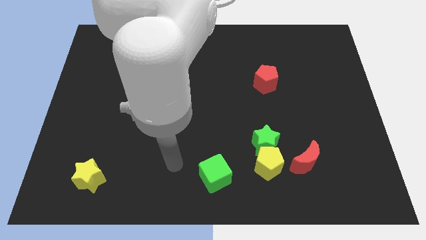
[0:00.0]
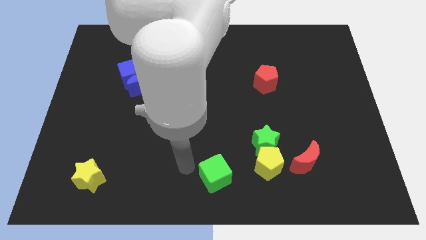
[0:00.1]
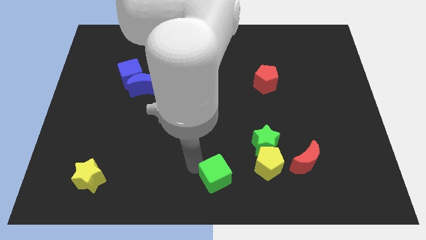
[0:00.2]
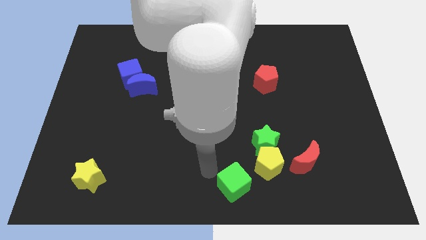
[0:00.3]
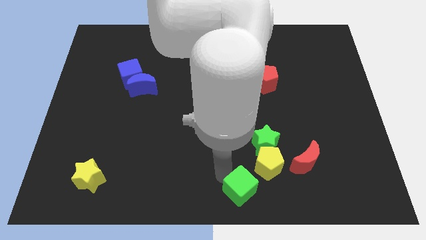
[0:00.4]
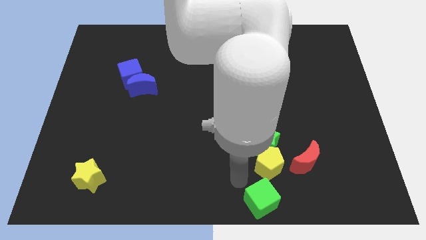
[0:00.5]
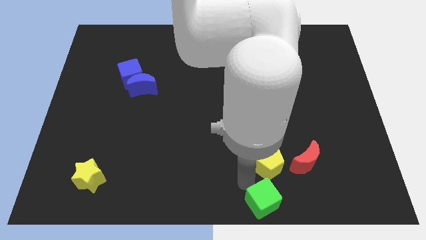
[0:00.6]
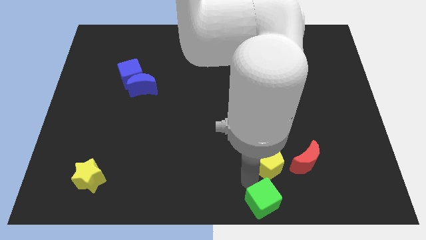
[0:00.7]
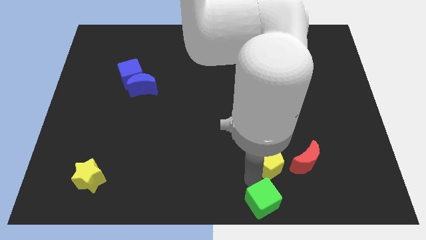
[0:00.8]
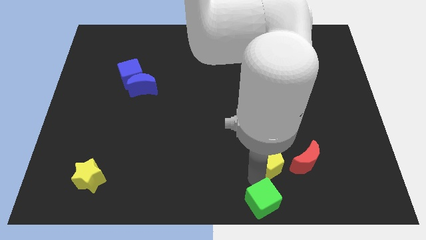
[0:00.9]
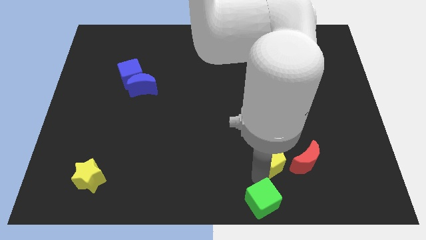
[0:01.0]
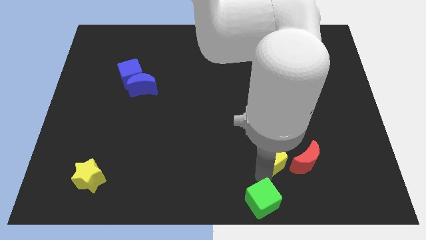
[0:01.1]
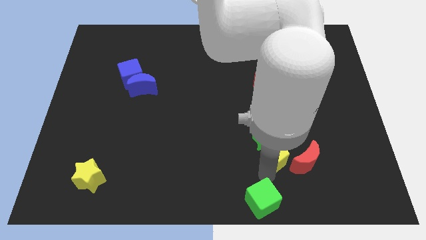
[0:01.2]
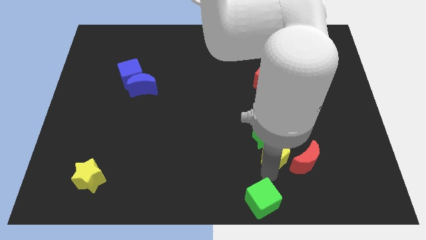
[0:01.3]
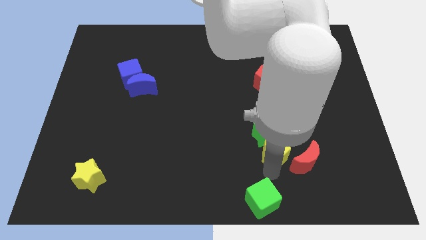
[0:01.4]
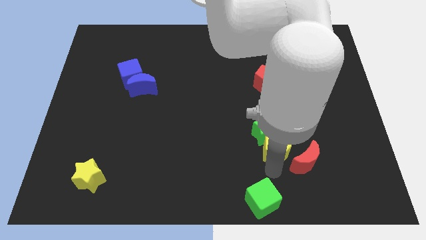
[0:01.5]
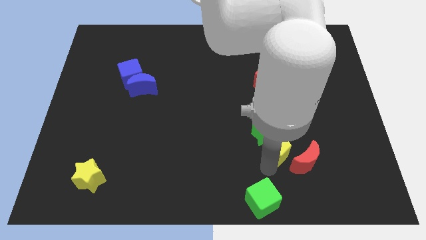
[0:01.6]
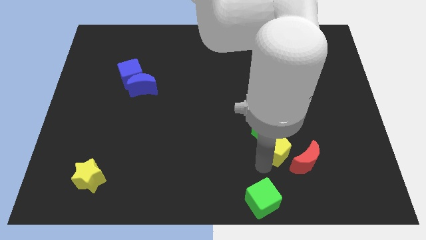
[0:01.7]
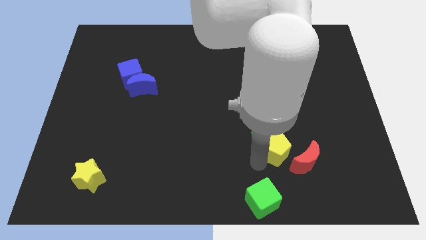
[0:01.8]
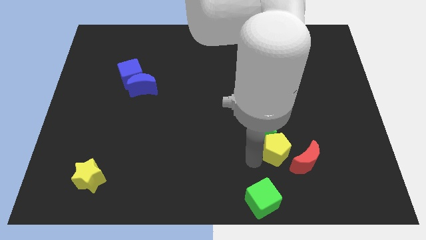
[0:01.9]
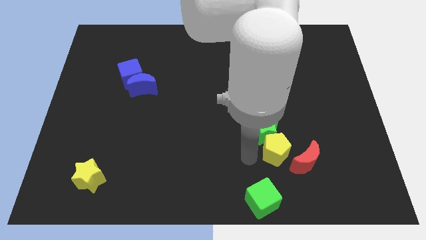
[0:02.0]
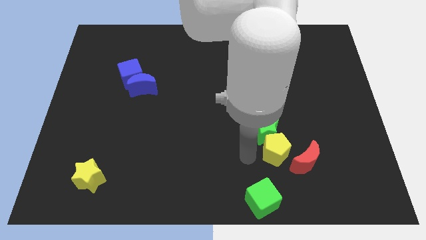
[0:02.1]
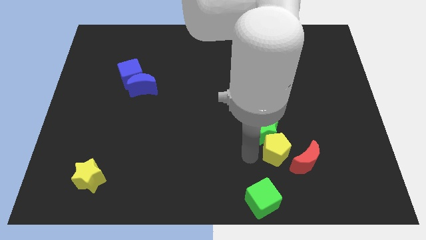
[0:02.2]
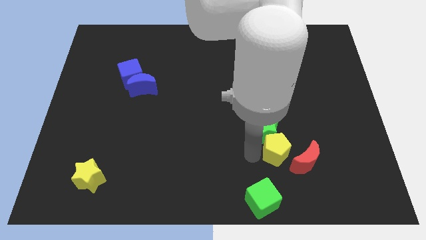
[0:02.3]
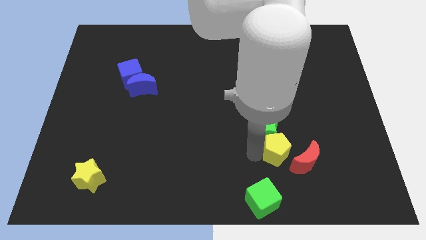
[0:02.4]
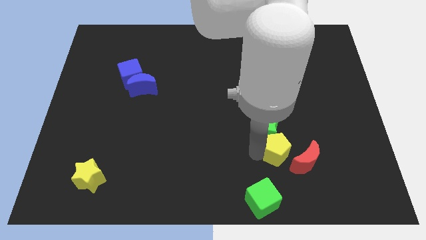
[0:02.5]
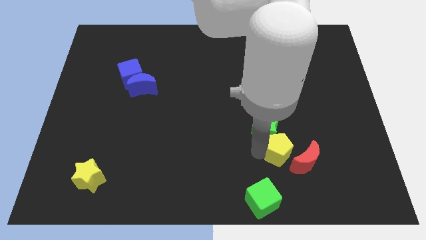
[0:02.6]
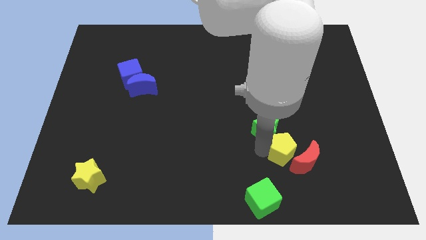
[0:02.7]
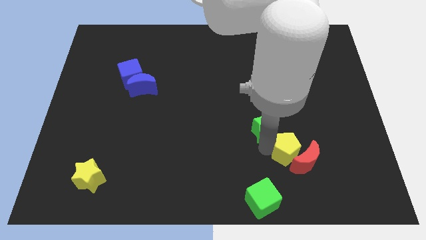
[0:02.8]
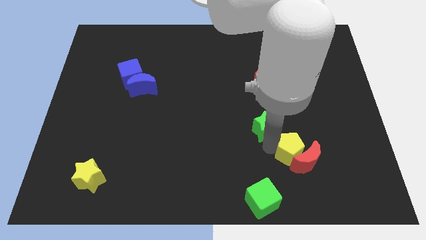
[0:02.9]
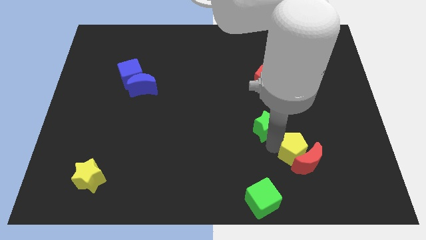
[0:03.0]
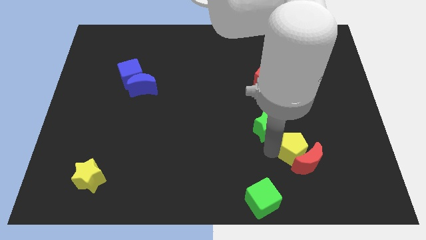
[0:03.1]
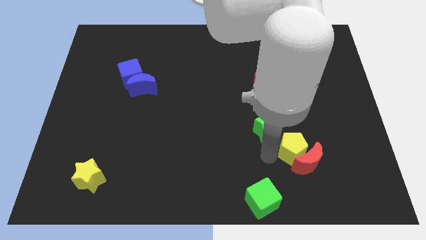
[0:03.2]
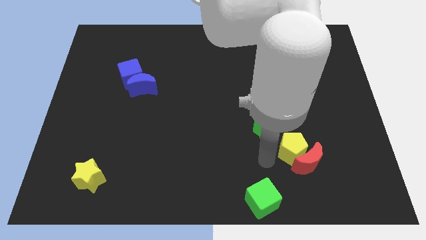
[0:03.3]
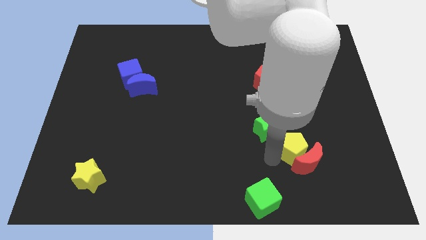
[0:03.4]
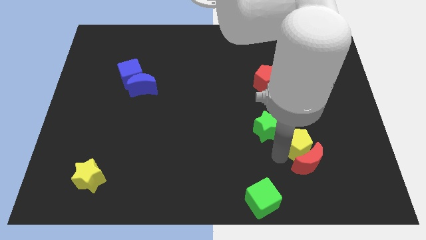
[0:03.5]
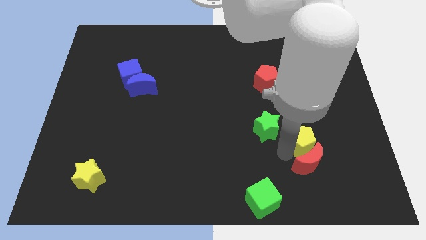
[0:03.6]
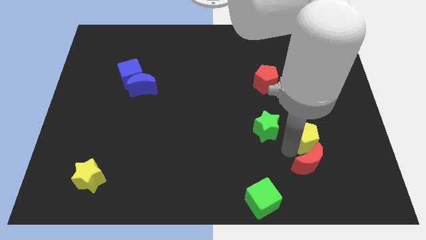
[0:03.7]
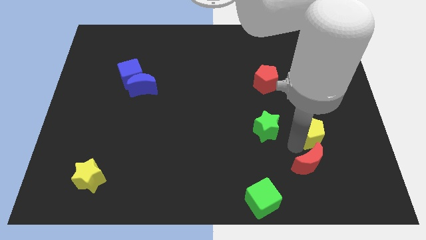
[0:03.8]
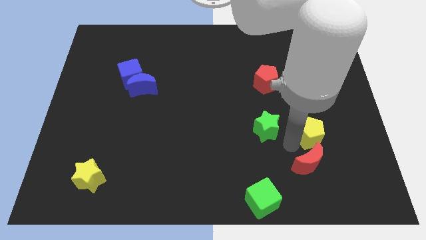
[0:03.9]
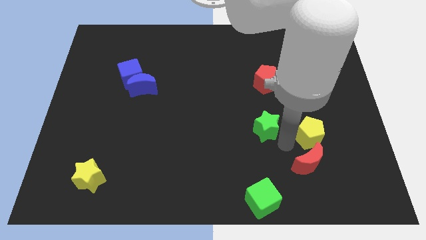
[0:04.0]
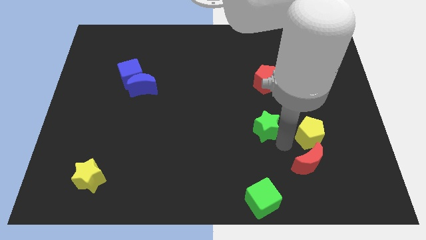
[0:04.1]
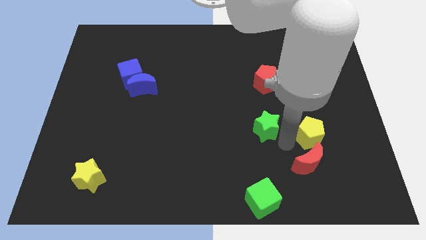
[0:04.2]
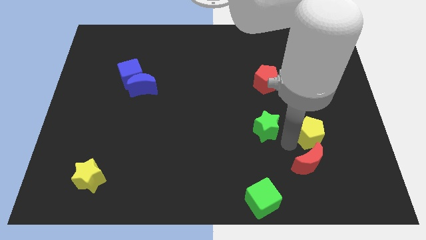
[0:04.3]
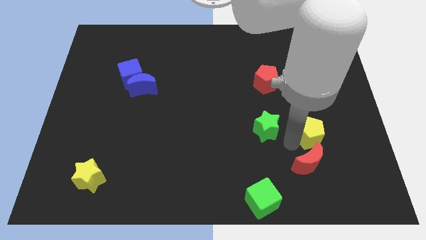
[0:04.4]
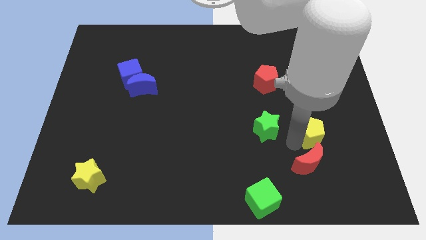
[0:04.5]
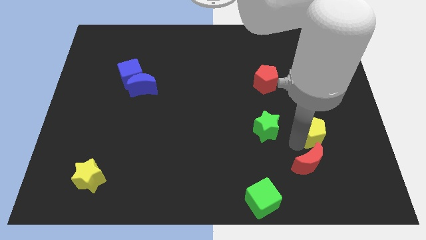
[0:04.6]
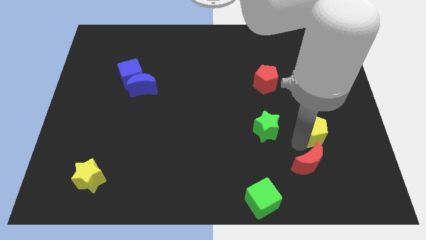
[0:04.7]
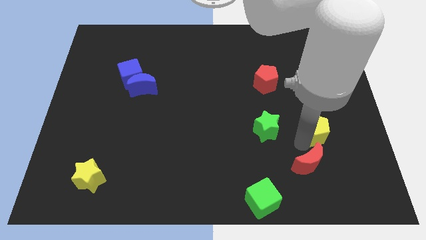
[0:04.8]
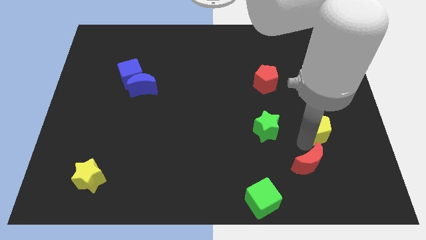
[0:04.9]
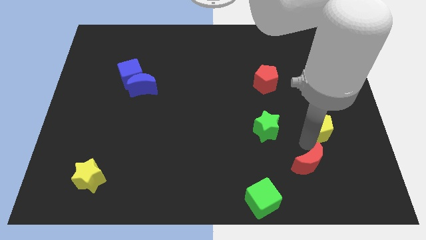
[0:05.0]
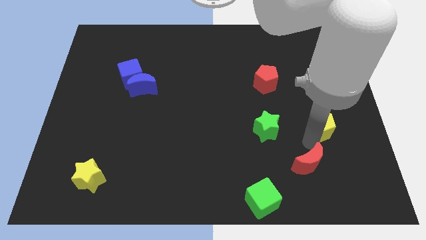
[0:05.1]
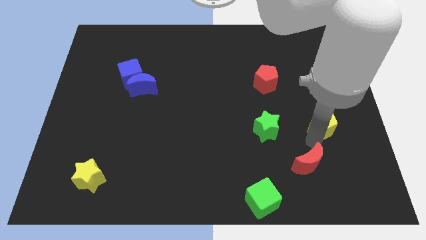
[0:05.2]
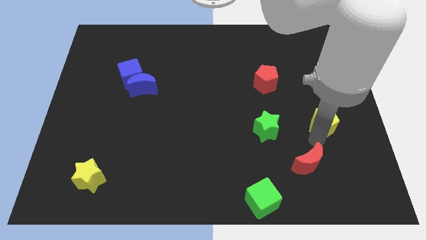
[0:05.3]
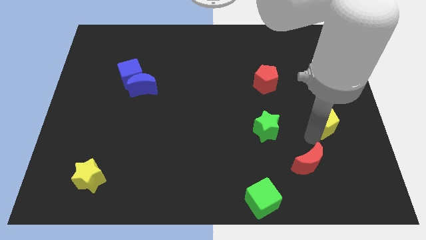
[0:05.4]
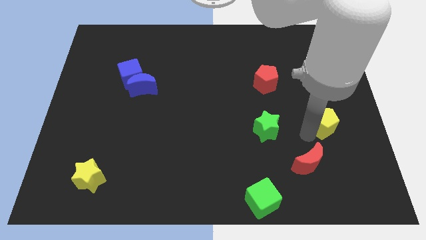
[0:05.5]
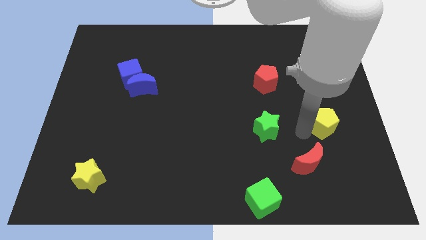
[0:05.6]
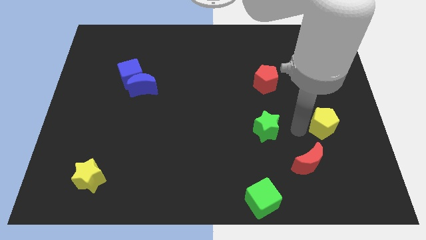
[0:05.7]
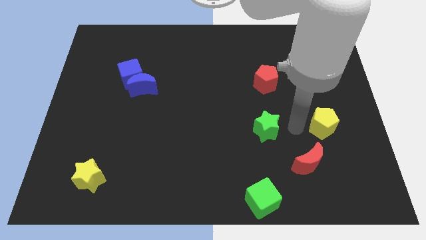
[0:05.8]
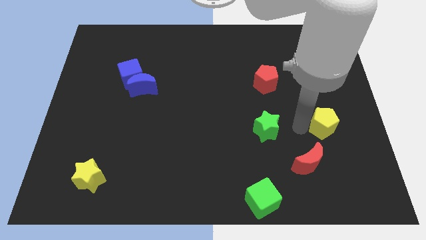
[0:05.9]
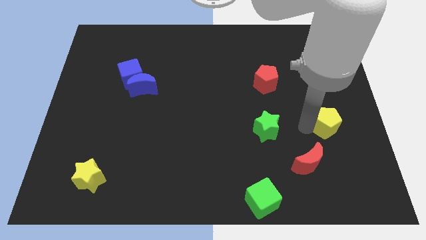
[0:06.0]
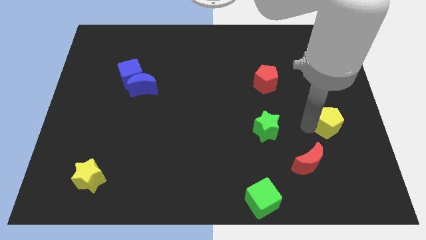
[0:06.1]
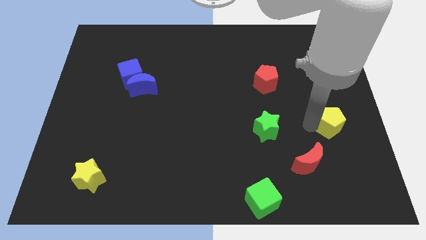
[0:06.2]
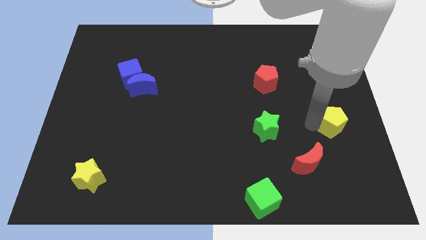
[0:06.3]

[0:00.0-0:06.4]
put the yellow pentagon to the right side
